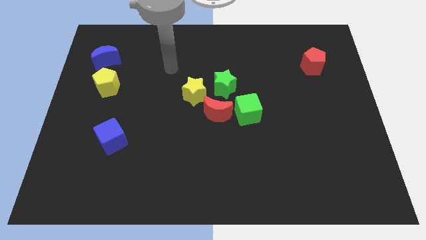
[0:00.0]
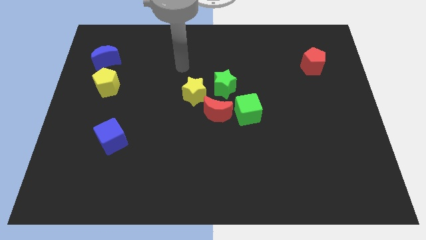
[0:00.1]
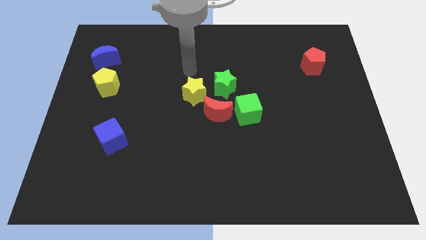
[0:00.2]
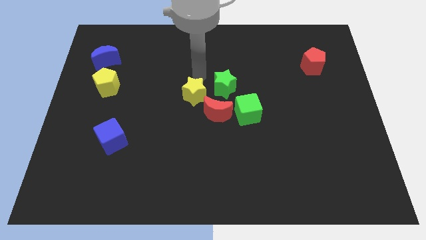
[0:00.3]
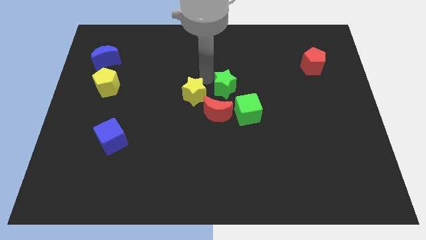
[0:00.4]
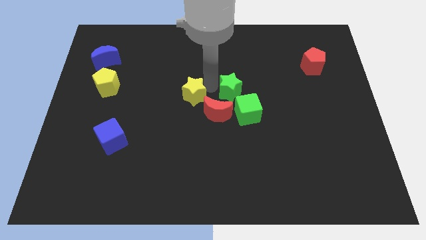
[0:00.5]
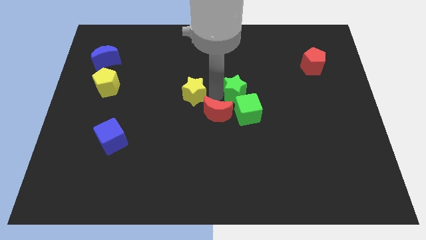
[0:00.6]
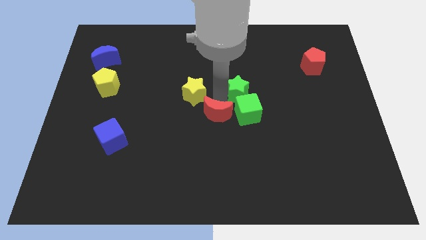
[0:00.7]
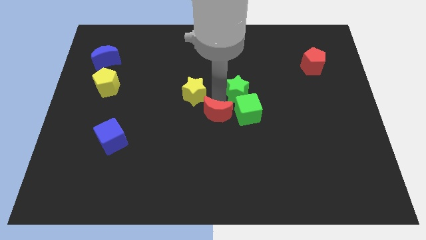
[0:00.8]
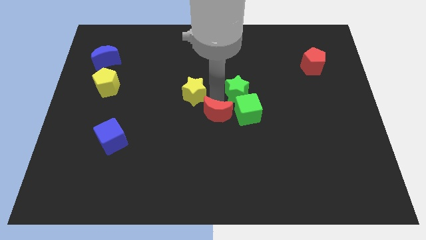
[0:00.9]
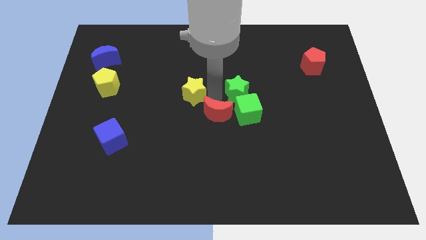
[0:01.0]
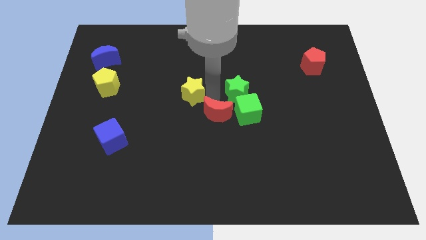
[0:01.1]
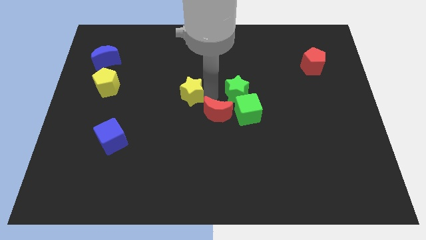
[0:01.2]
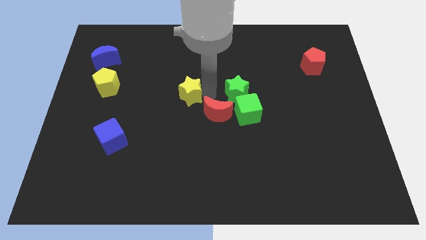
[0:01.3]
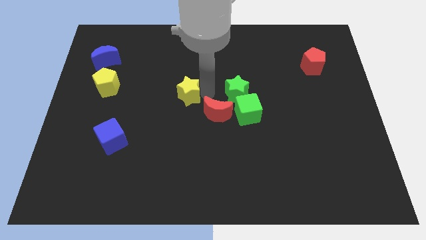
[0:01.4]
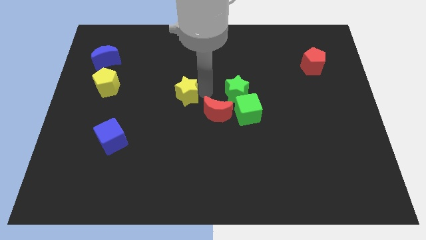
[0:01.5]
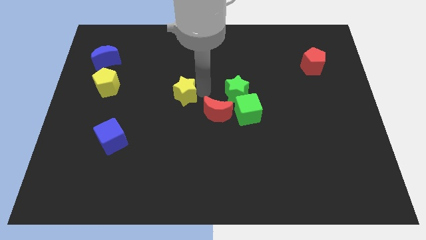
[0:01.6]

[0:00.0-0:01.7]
separate the yellow star from the green star and red moon

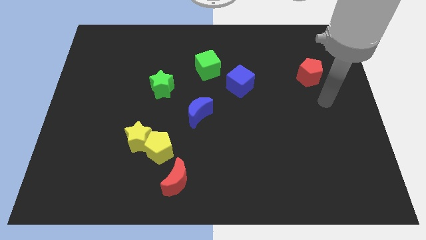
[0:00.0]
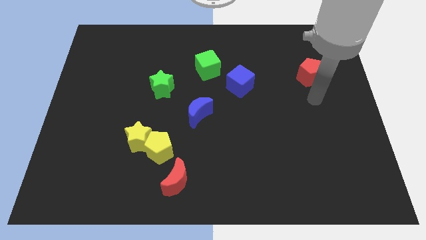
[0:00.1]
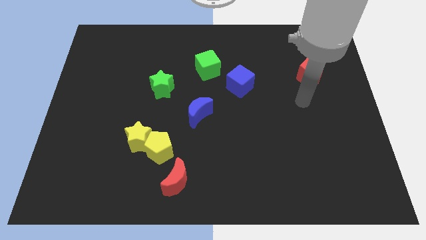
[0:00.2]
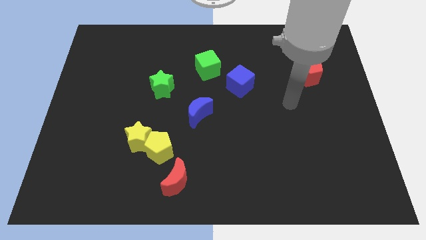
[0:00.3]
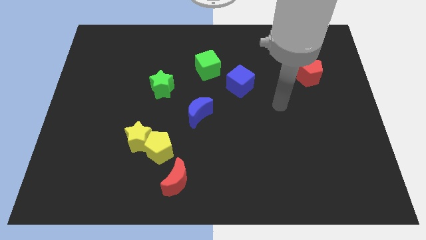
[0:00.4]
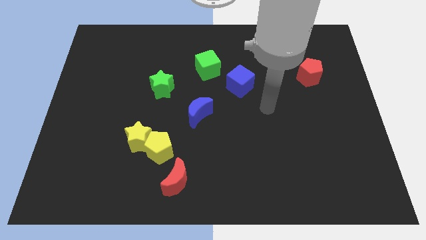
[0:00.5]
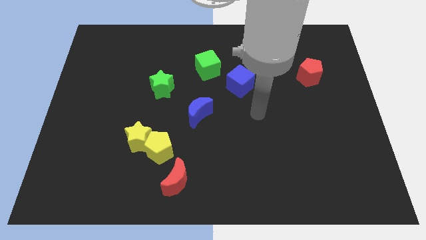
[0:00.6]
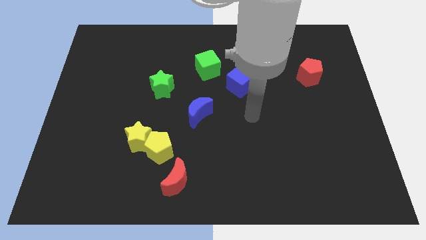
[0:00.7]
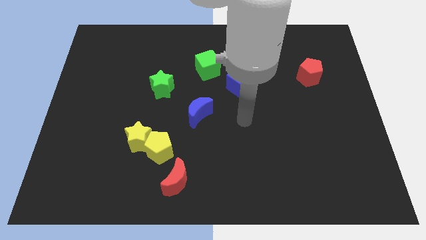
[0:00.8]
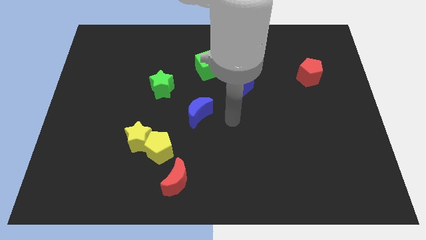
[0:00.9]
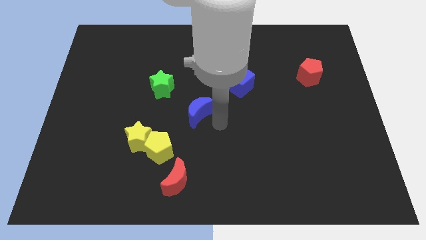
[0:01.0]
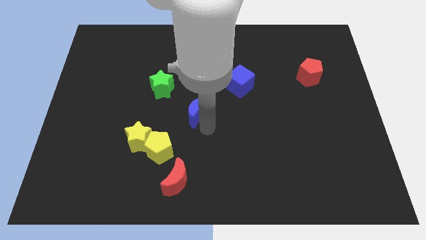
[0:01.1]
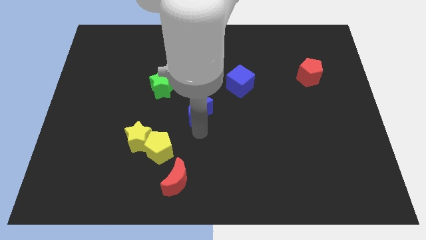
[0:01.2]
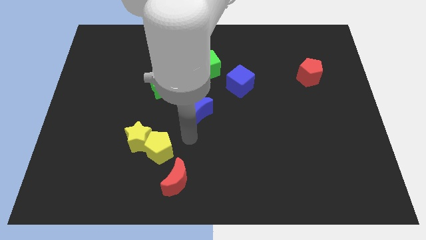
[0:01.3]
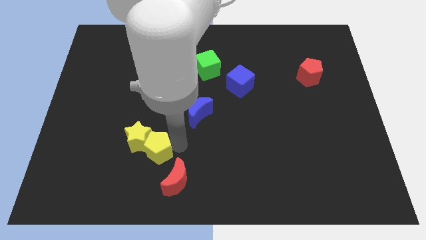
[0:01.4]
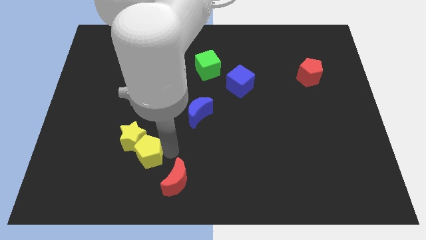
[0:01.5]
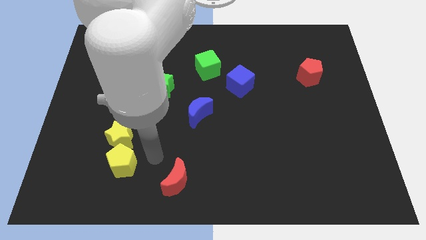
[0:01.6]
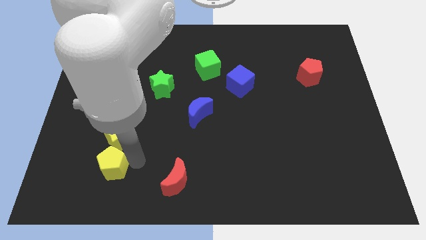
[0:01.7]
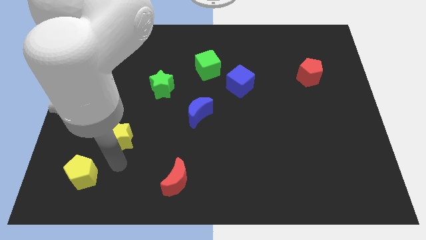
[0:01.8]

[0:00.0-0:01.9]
separate the yellow star from the yellow pentagon

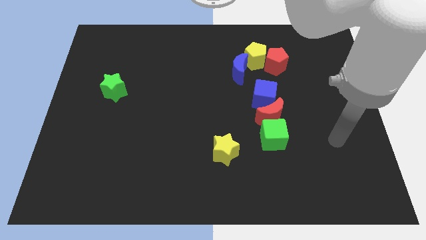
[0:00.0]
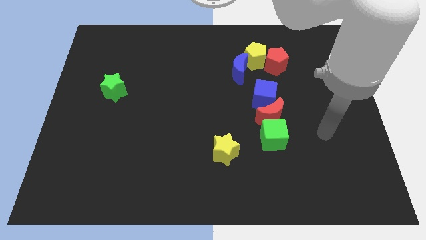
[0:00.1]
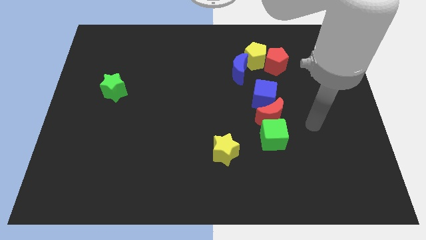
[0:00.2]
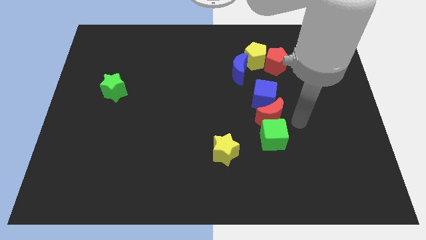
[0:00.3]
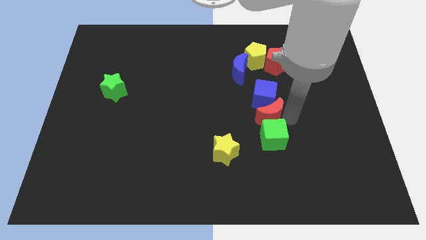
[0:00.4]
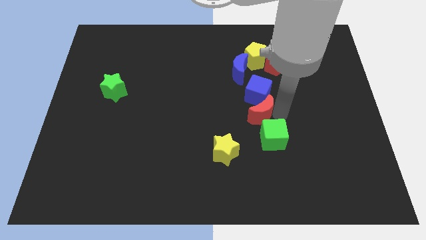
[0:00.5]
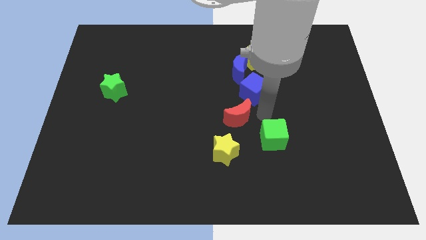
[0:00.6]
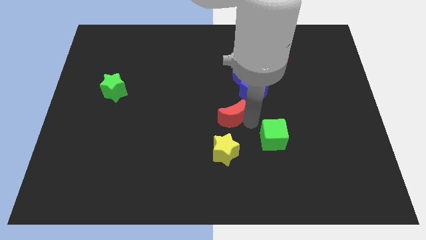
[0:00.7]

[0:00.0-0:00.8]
pull the green cube apart from the red moon

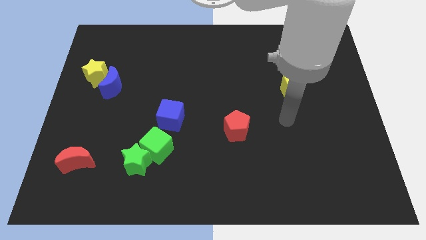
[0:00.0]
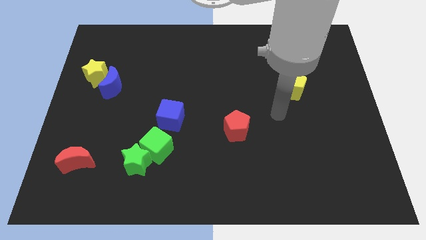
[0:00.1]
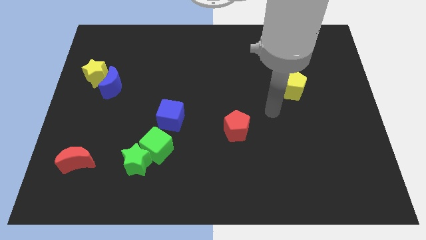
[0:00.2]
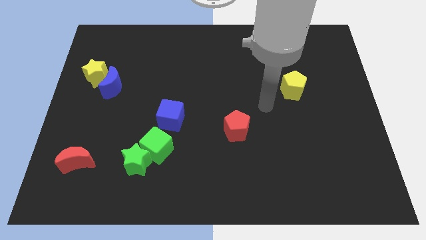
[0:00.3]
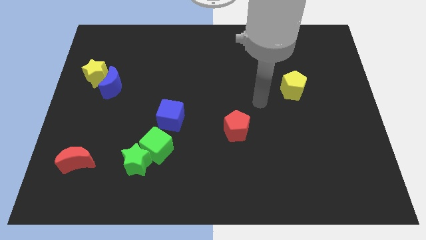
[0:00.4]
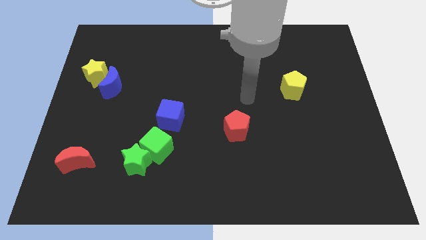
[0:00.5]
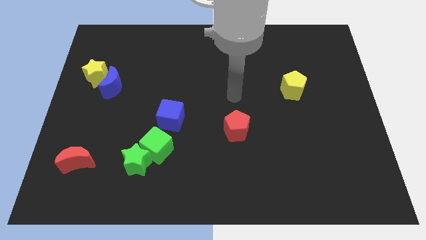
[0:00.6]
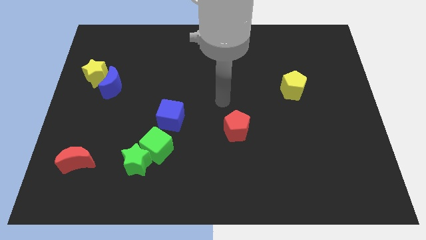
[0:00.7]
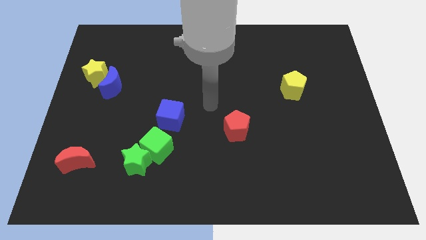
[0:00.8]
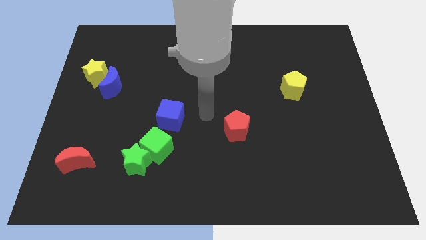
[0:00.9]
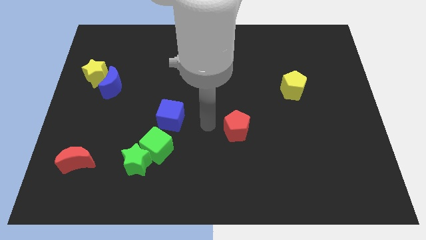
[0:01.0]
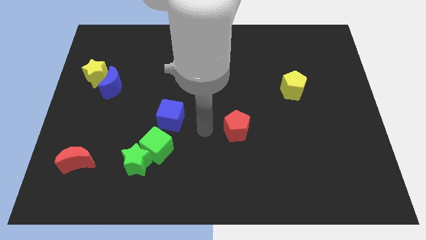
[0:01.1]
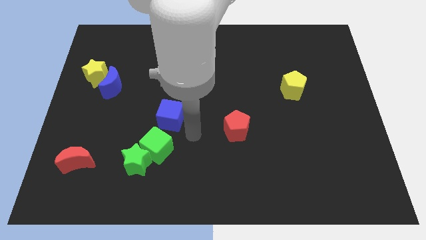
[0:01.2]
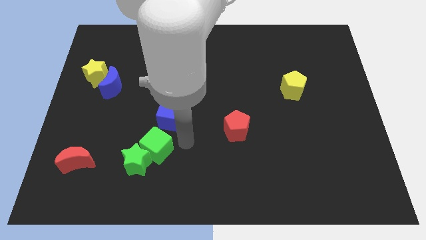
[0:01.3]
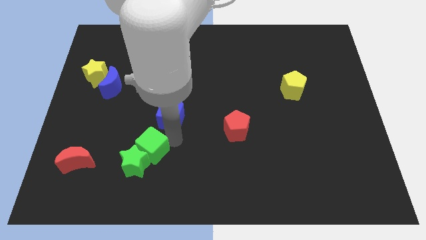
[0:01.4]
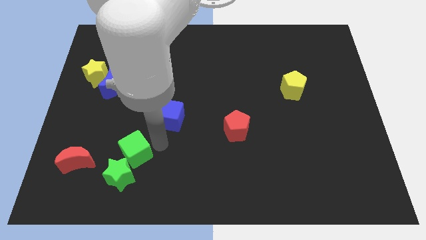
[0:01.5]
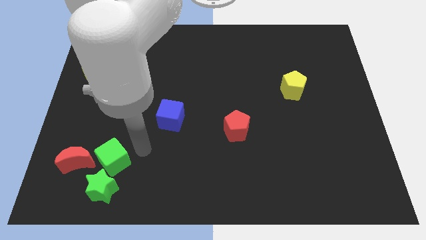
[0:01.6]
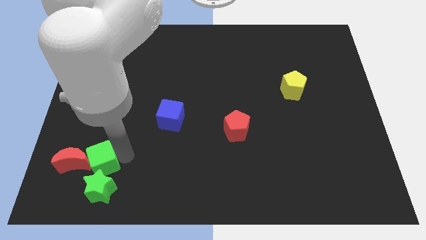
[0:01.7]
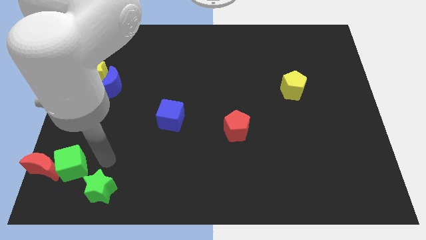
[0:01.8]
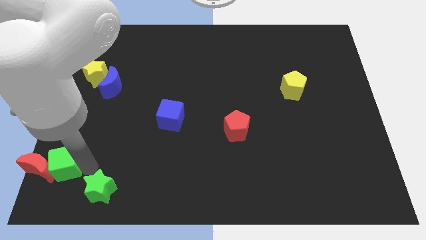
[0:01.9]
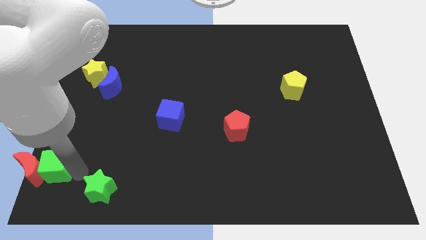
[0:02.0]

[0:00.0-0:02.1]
separate the green star from the green cube

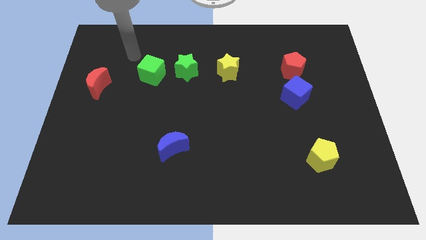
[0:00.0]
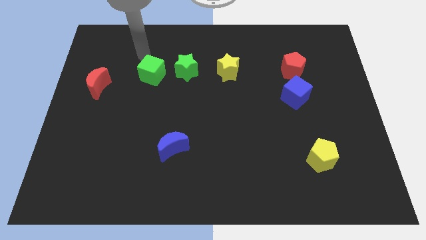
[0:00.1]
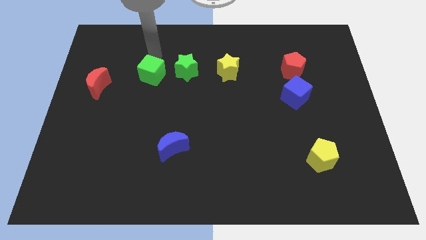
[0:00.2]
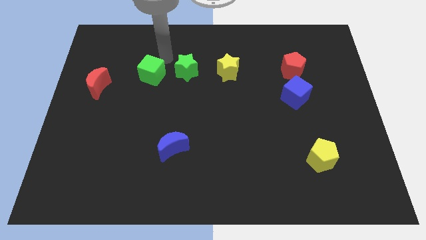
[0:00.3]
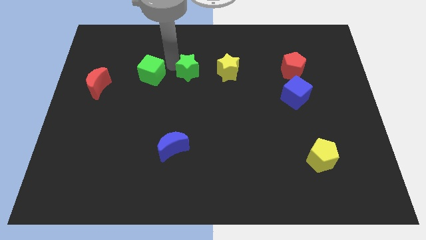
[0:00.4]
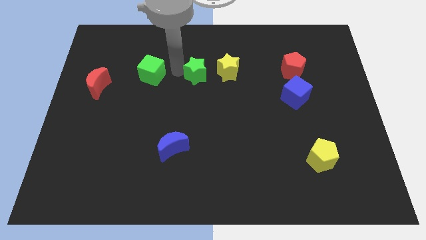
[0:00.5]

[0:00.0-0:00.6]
move the green cube away from the green star

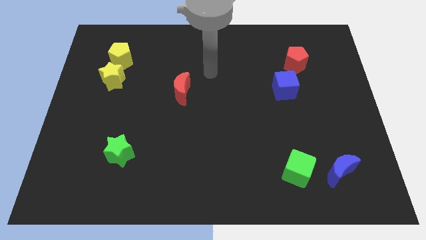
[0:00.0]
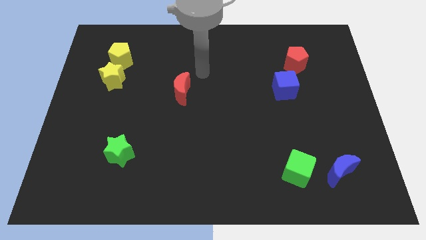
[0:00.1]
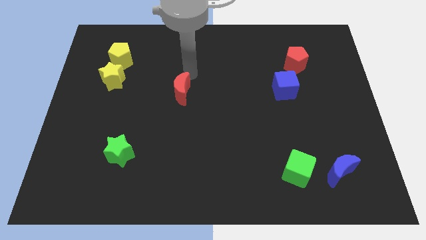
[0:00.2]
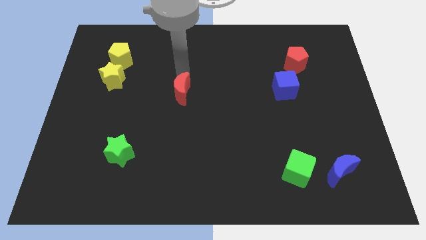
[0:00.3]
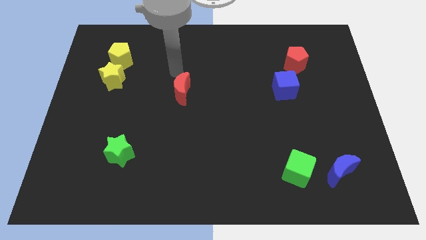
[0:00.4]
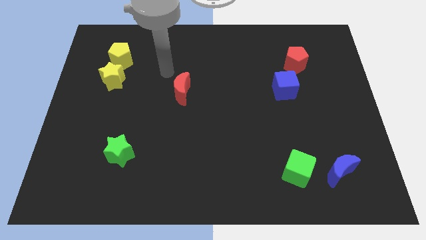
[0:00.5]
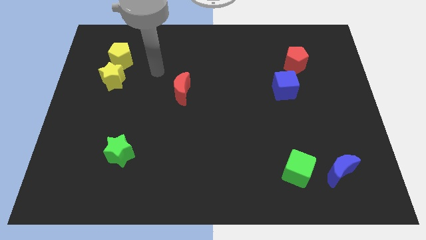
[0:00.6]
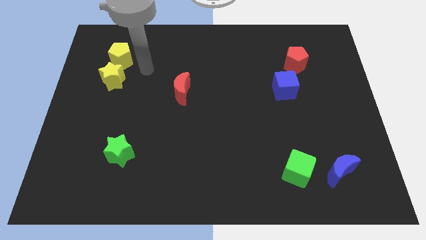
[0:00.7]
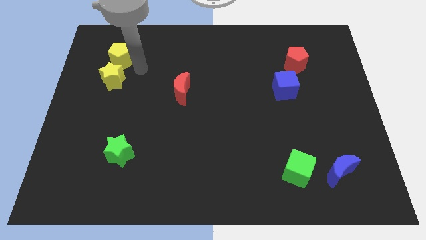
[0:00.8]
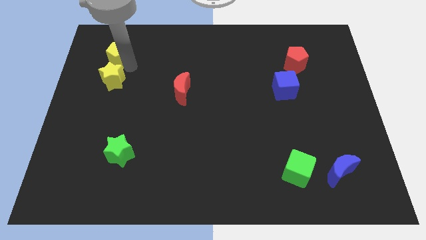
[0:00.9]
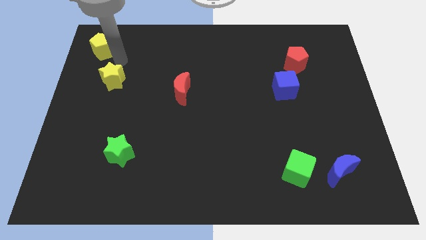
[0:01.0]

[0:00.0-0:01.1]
pull the yellow star apart from the yellow pentagon

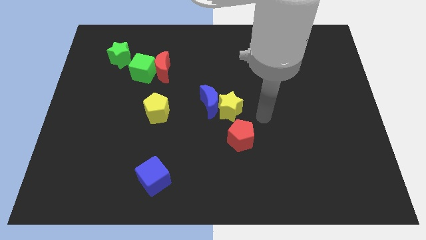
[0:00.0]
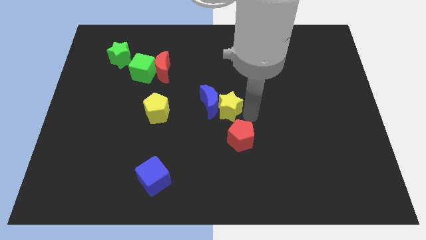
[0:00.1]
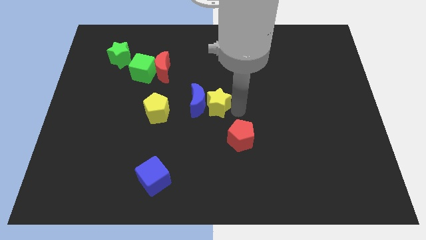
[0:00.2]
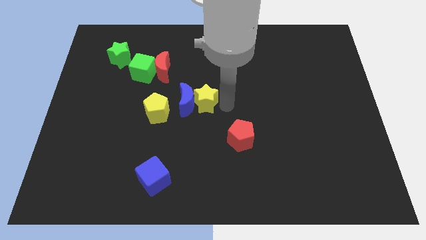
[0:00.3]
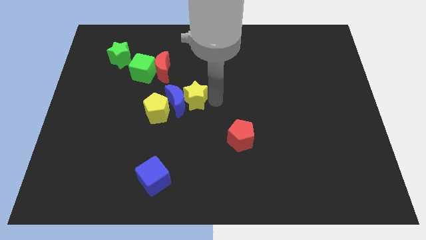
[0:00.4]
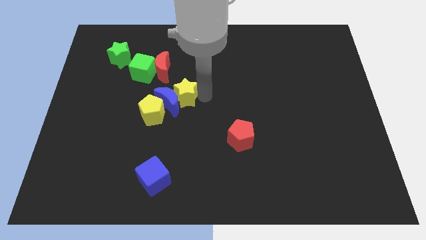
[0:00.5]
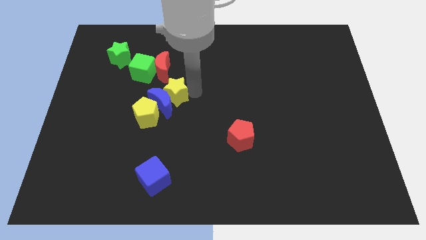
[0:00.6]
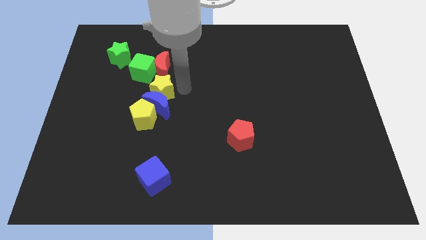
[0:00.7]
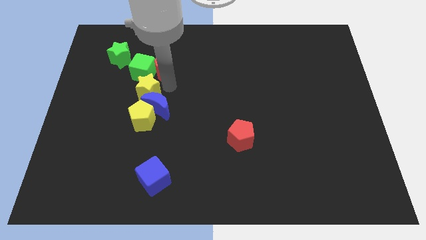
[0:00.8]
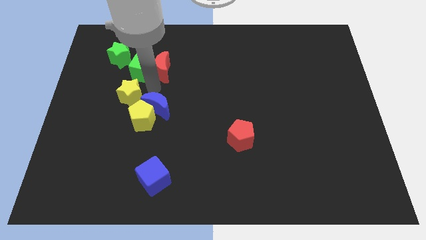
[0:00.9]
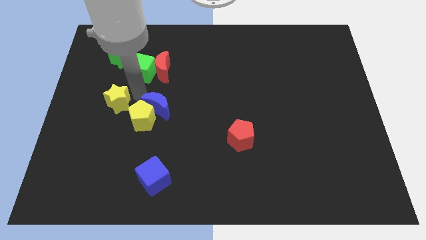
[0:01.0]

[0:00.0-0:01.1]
pull the blue moon apart from the yellow star
